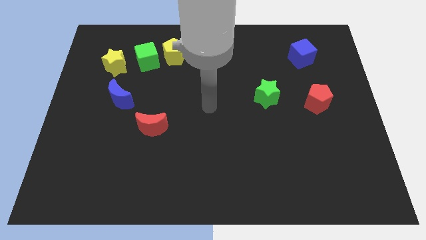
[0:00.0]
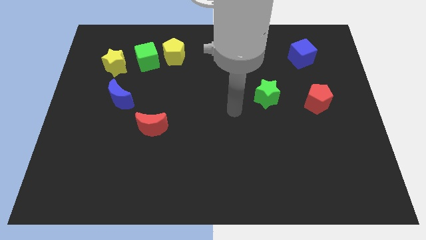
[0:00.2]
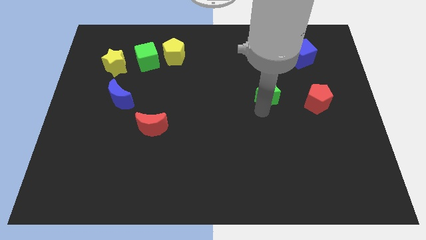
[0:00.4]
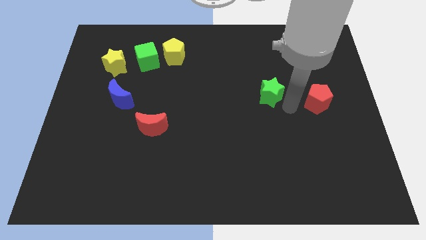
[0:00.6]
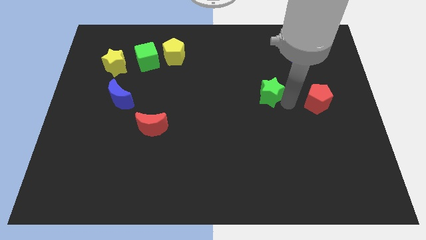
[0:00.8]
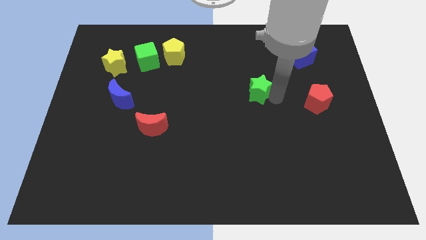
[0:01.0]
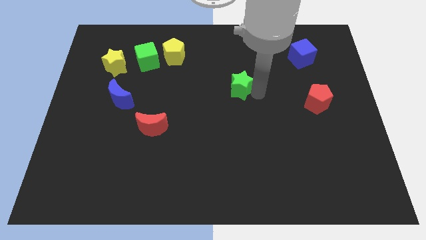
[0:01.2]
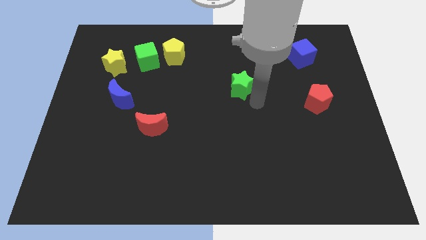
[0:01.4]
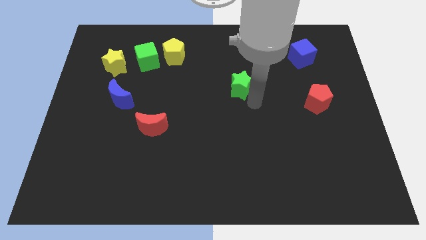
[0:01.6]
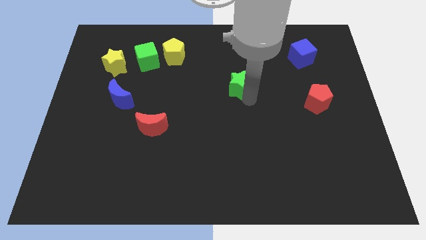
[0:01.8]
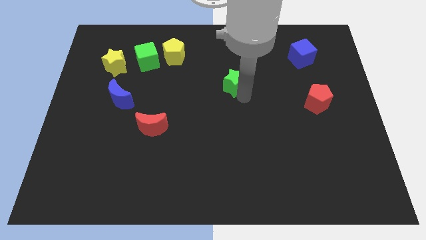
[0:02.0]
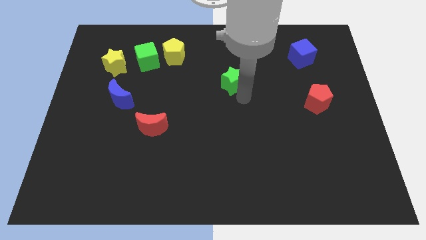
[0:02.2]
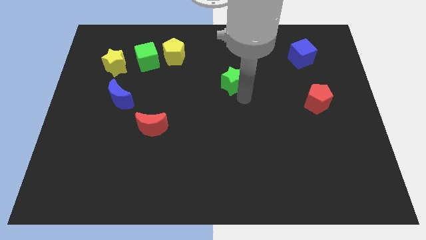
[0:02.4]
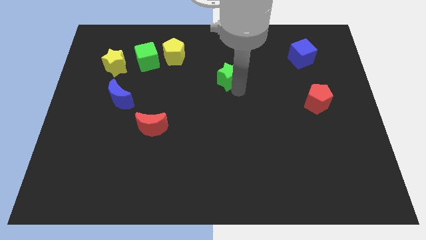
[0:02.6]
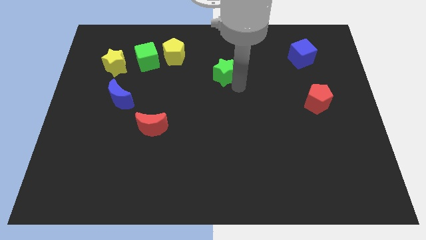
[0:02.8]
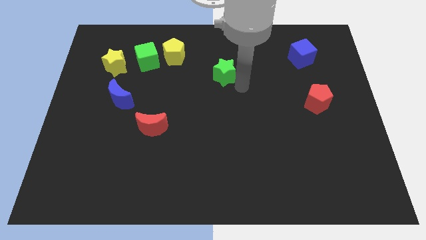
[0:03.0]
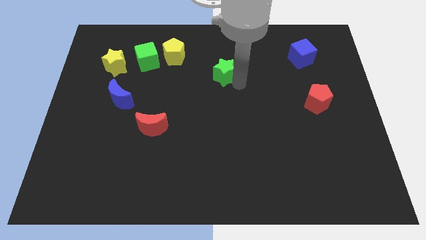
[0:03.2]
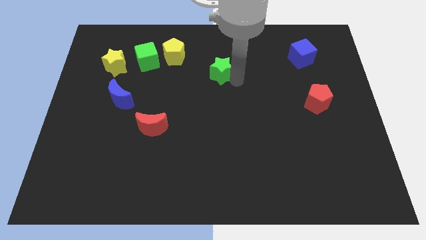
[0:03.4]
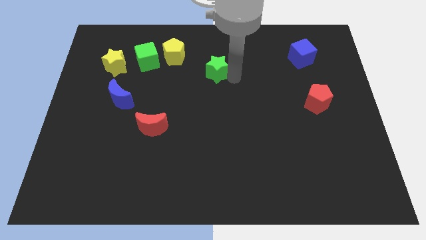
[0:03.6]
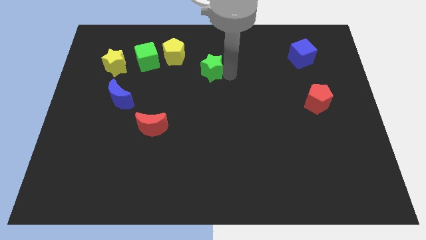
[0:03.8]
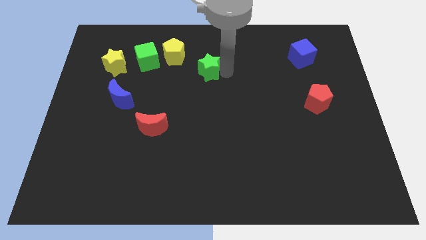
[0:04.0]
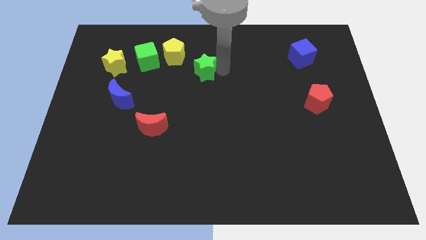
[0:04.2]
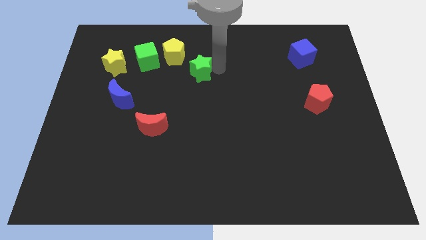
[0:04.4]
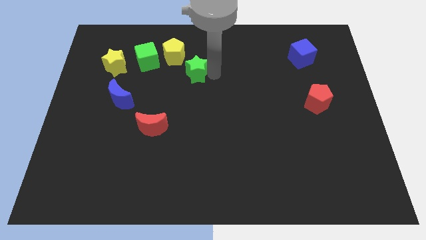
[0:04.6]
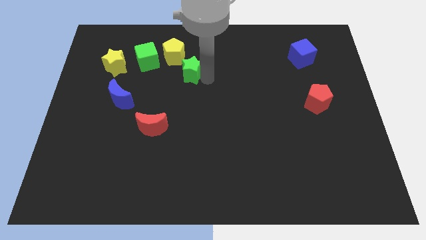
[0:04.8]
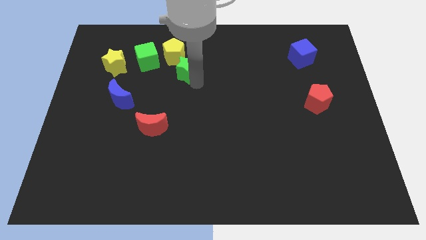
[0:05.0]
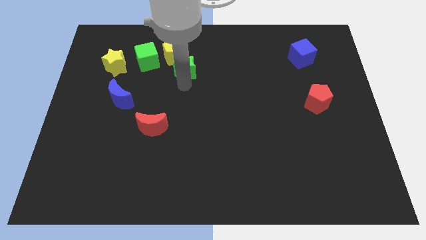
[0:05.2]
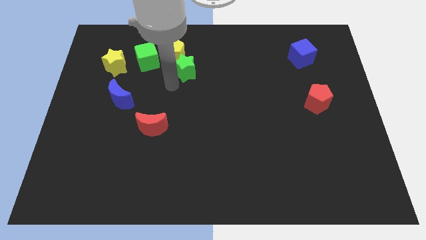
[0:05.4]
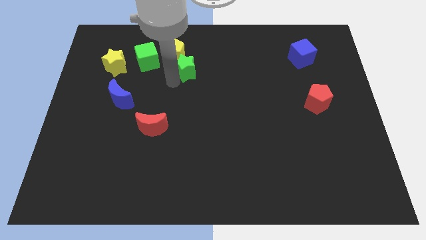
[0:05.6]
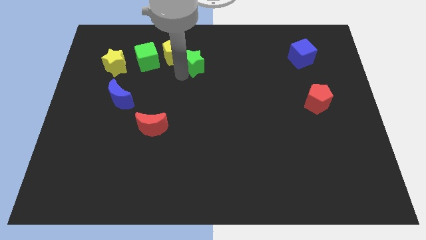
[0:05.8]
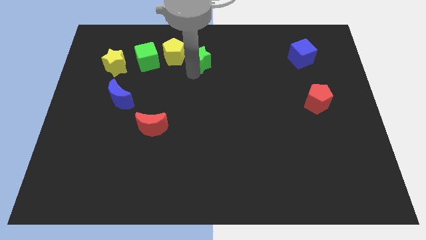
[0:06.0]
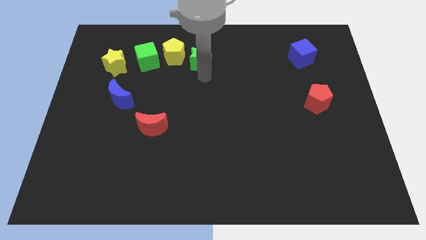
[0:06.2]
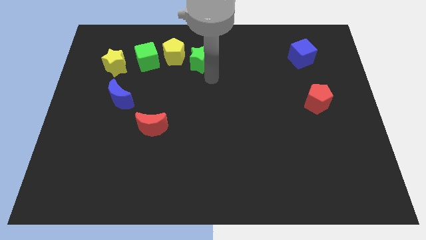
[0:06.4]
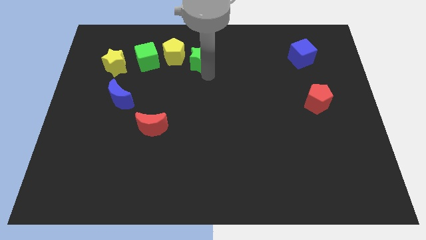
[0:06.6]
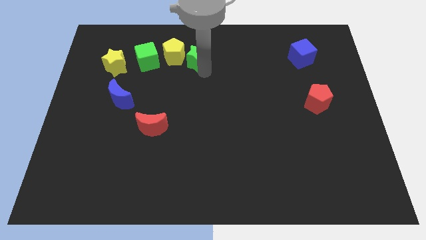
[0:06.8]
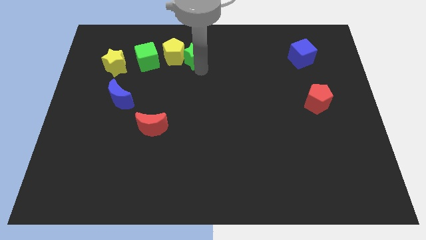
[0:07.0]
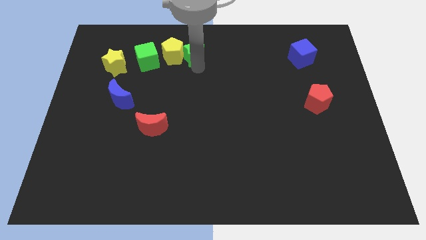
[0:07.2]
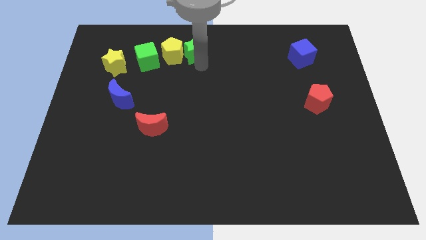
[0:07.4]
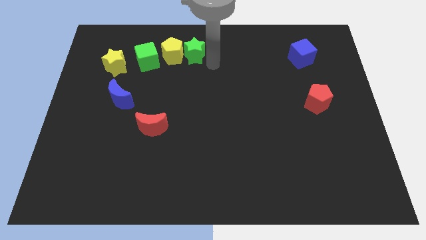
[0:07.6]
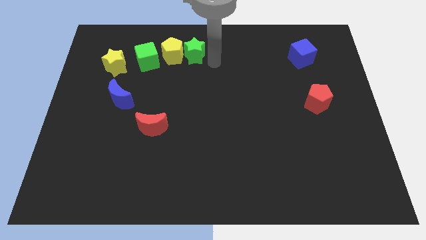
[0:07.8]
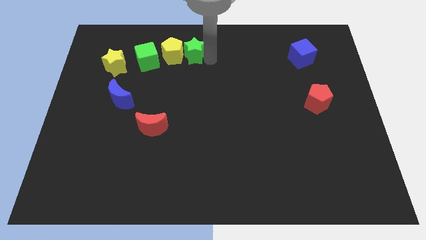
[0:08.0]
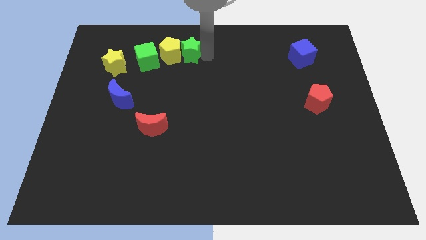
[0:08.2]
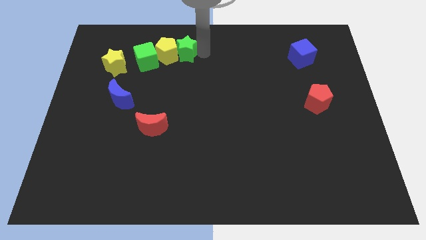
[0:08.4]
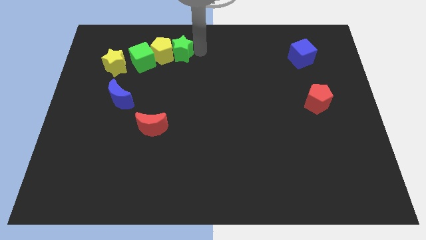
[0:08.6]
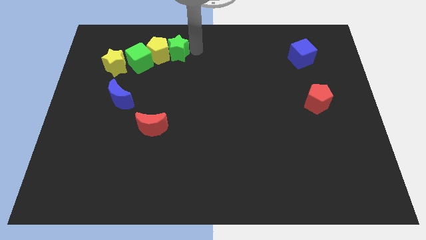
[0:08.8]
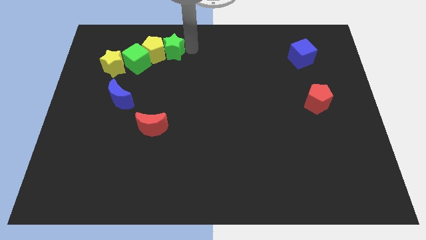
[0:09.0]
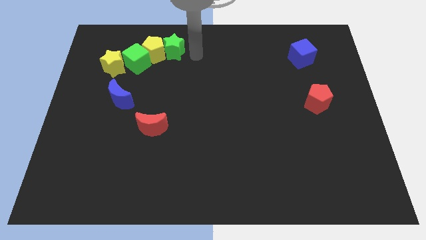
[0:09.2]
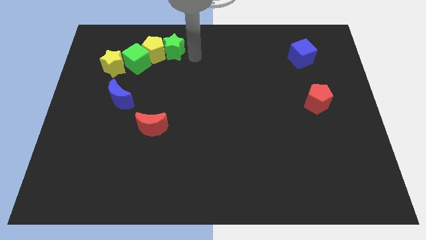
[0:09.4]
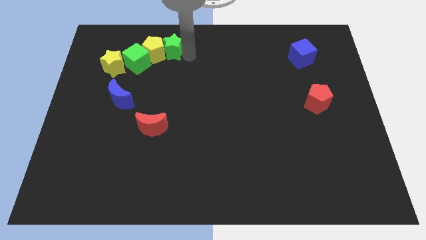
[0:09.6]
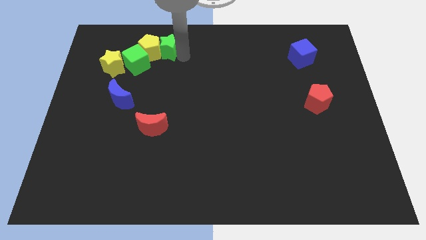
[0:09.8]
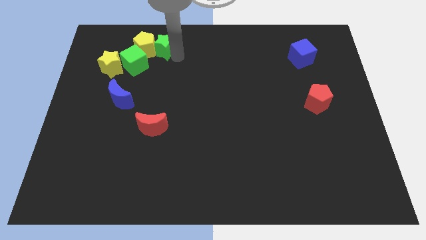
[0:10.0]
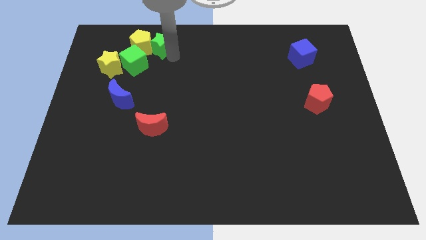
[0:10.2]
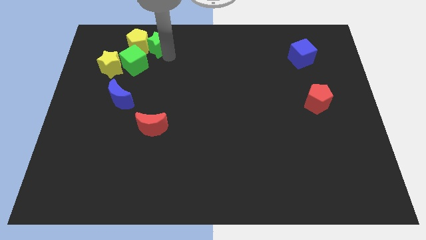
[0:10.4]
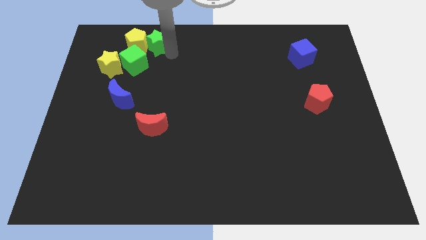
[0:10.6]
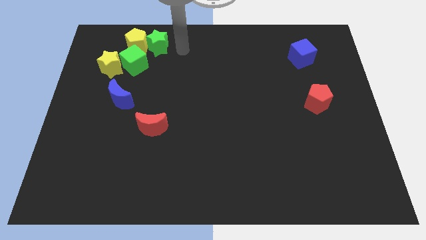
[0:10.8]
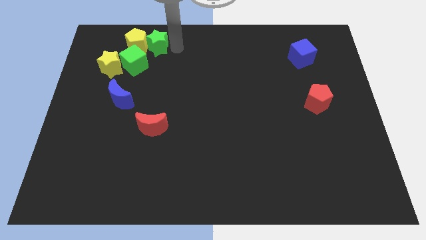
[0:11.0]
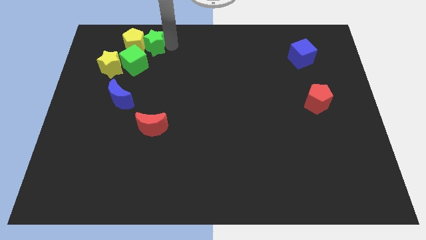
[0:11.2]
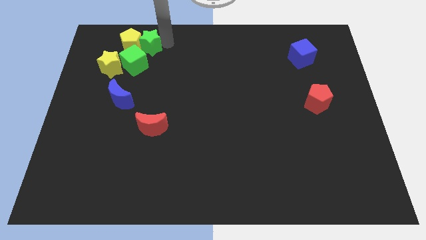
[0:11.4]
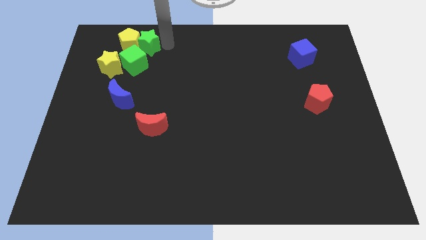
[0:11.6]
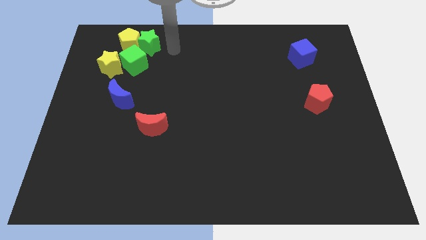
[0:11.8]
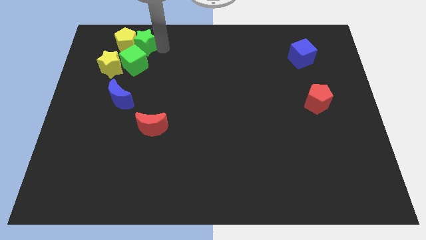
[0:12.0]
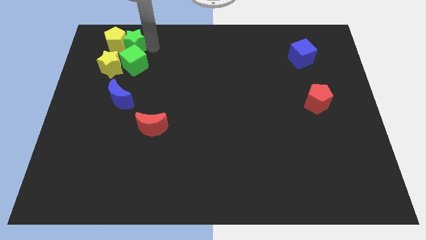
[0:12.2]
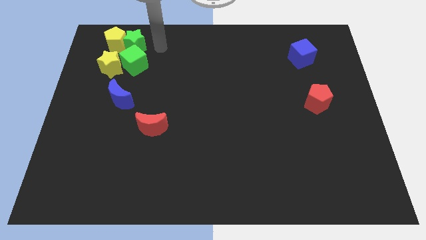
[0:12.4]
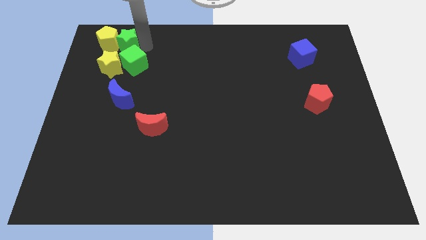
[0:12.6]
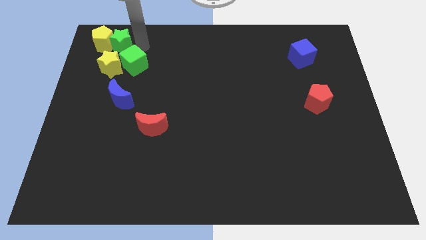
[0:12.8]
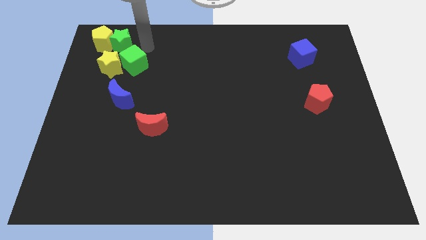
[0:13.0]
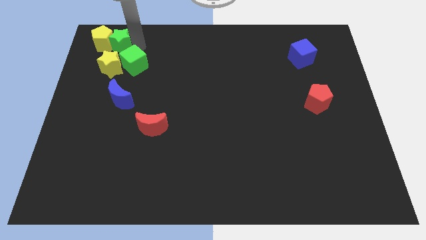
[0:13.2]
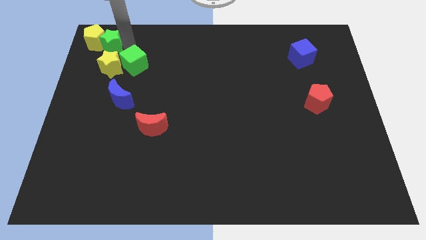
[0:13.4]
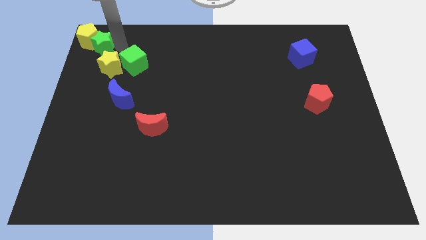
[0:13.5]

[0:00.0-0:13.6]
put the green star to the top left corner
